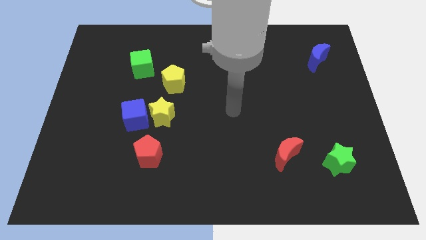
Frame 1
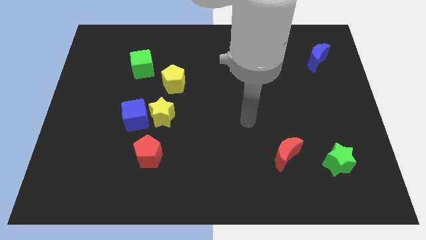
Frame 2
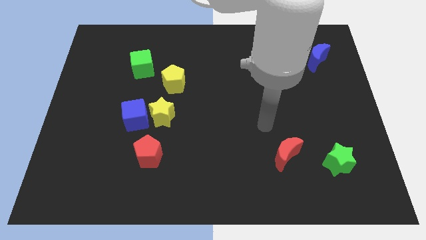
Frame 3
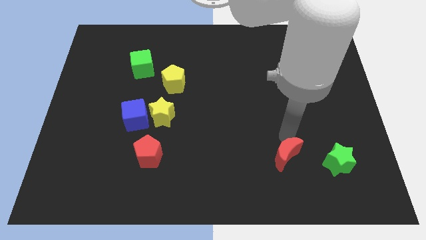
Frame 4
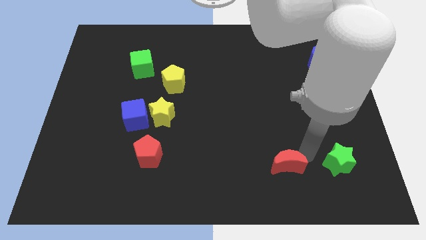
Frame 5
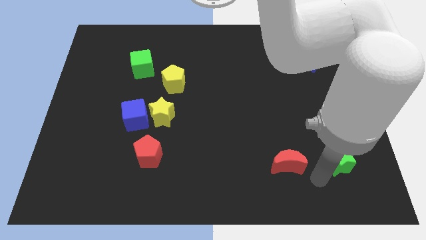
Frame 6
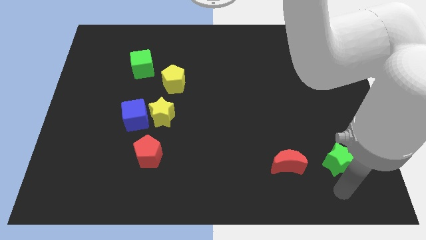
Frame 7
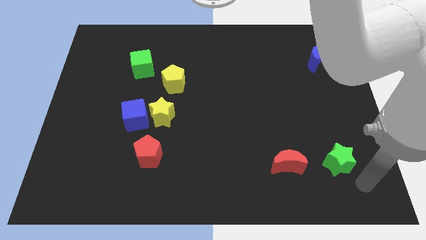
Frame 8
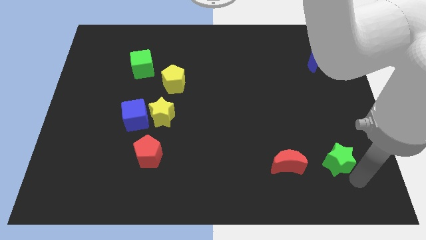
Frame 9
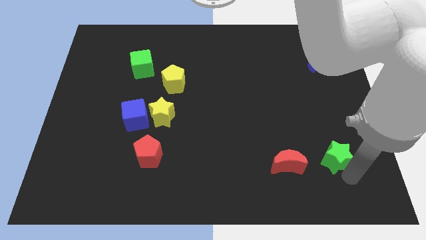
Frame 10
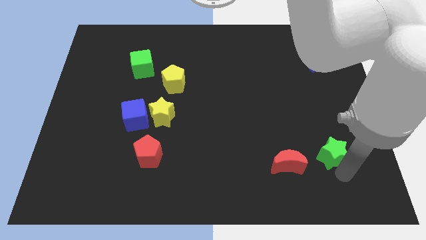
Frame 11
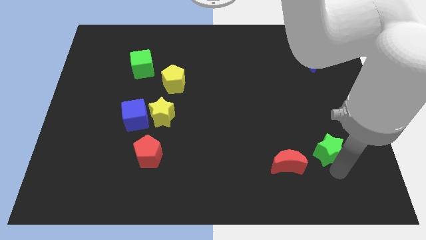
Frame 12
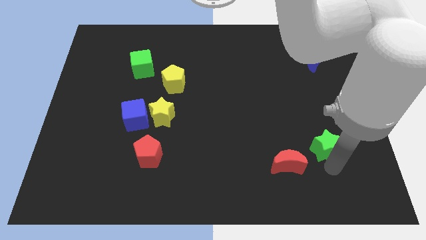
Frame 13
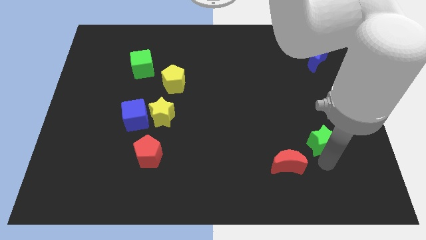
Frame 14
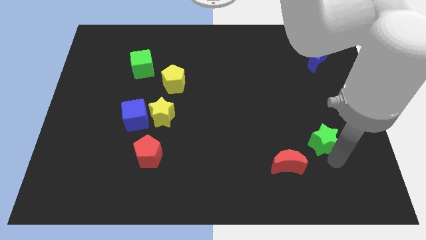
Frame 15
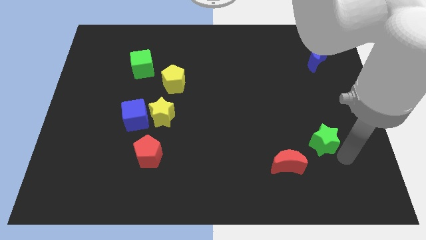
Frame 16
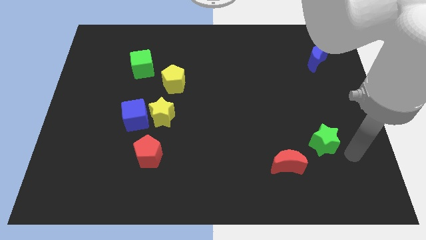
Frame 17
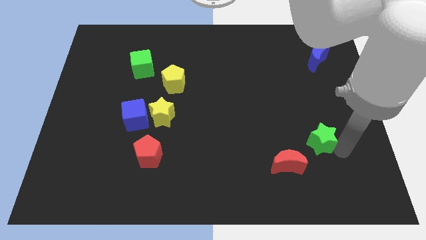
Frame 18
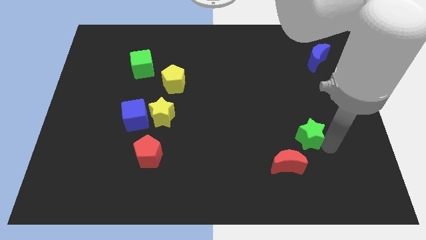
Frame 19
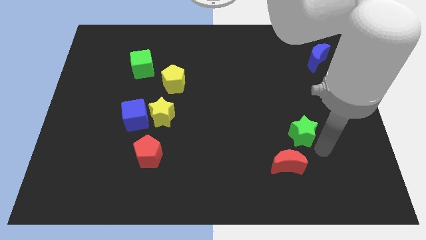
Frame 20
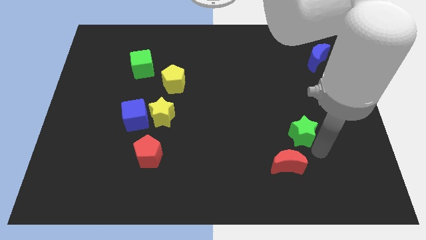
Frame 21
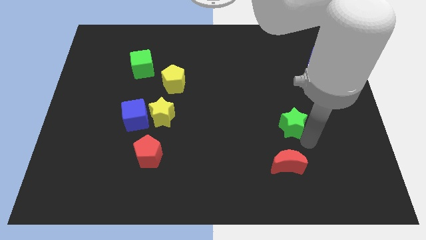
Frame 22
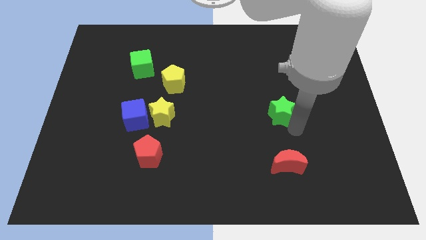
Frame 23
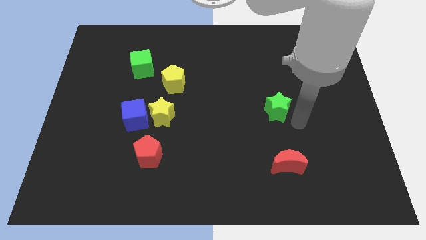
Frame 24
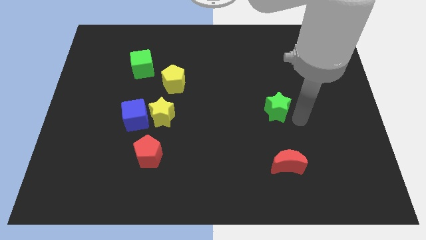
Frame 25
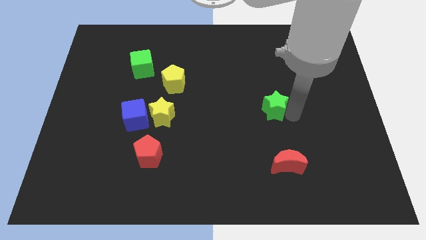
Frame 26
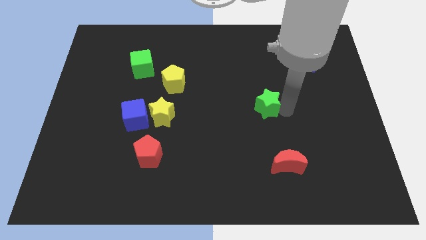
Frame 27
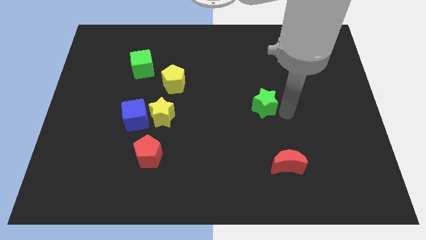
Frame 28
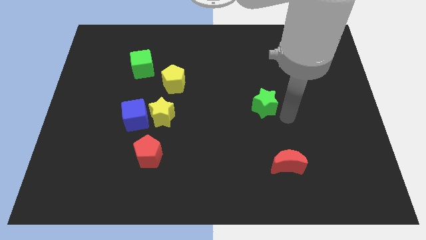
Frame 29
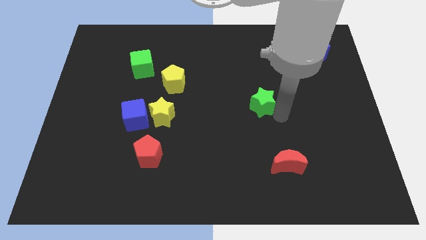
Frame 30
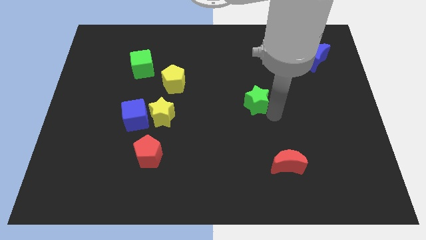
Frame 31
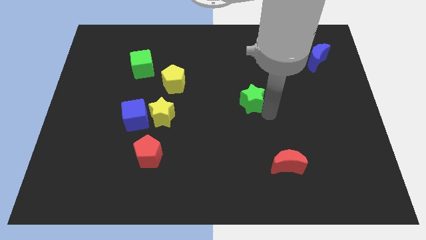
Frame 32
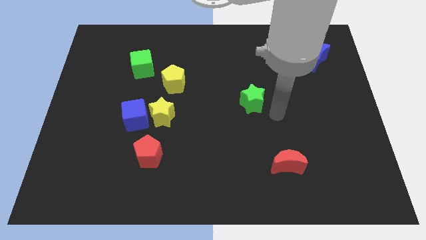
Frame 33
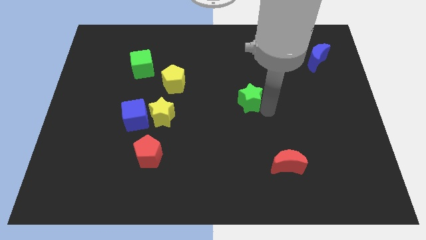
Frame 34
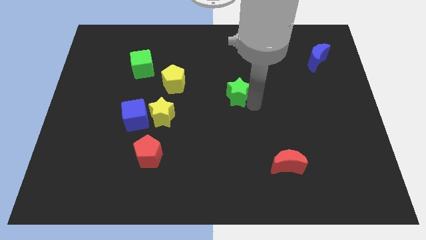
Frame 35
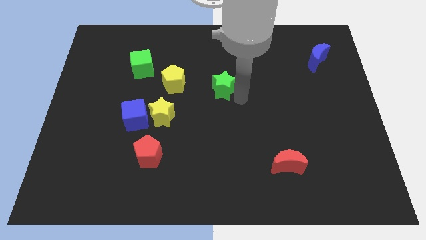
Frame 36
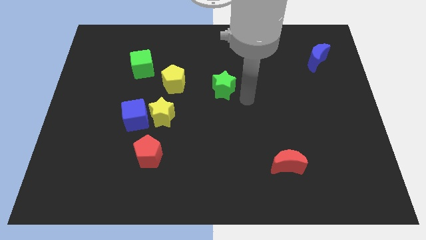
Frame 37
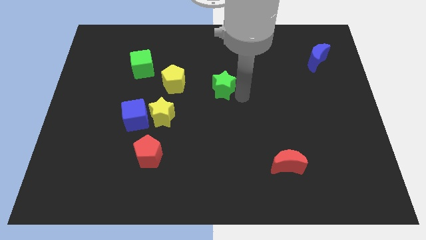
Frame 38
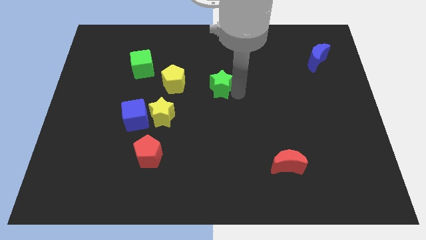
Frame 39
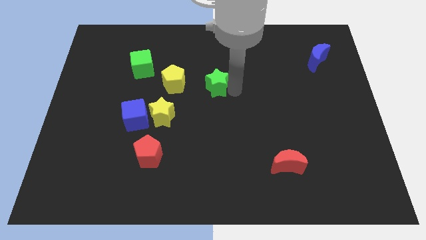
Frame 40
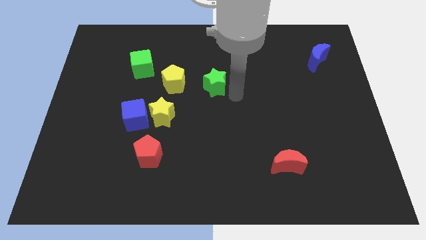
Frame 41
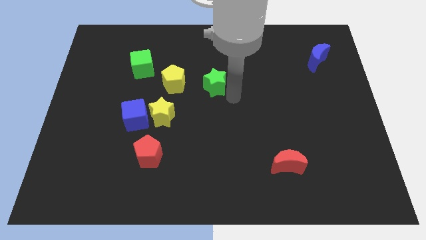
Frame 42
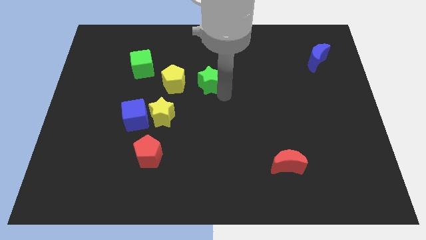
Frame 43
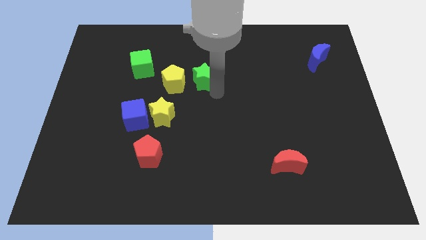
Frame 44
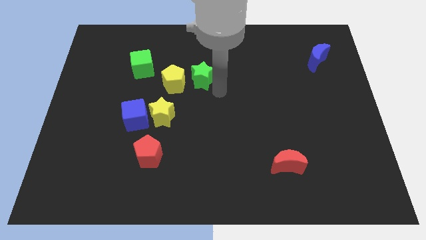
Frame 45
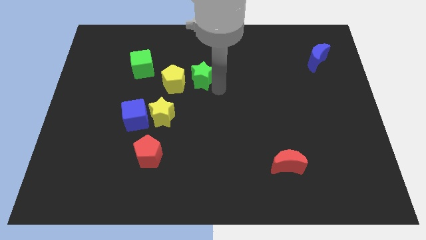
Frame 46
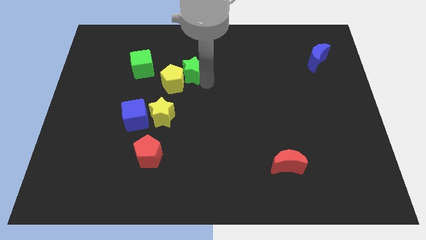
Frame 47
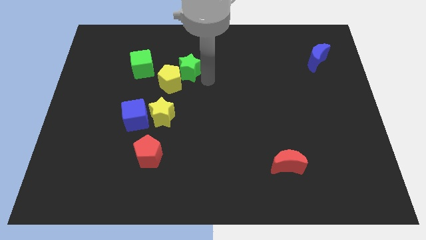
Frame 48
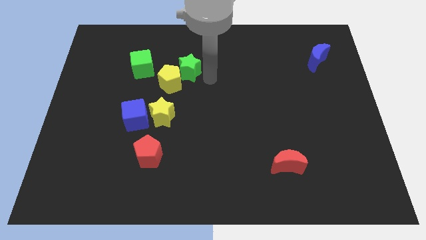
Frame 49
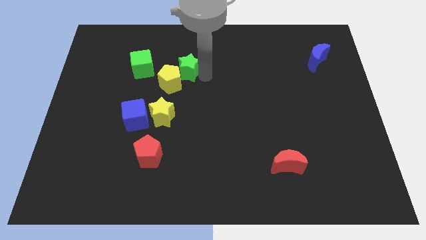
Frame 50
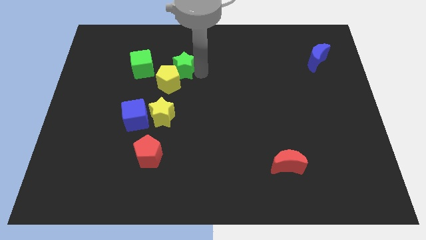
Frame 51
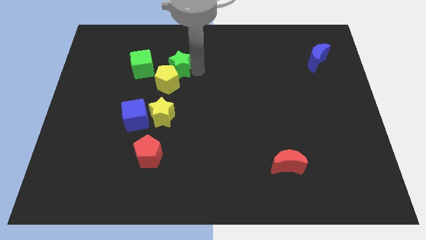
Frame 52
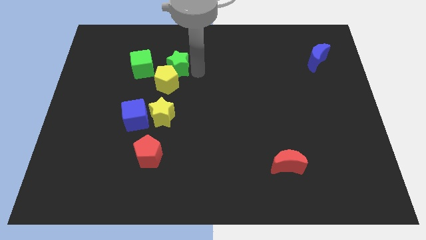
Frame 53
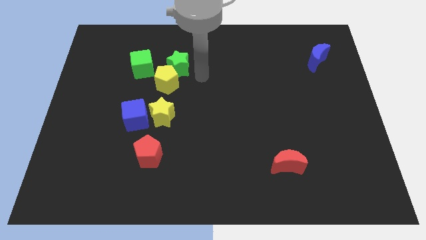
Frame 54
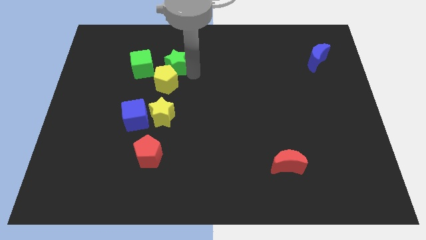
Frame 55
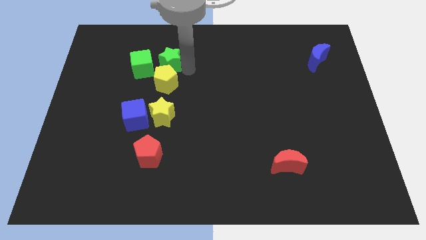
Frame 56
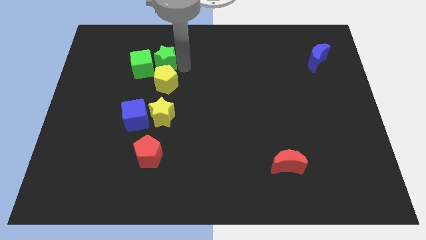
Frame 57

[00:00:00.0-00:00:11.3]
move the green star towards the green cube

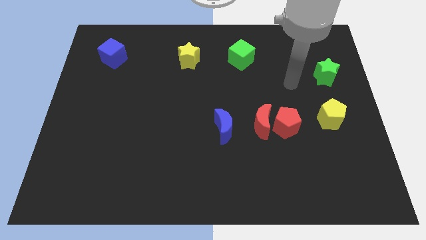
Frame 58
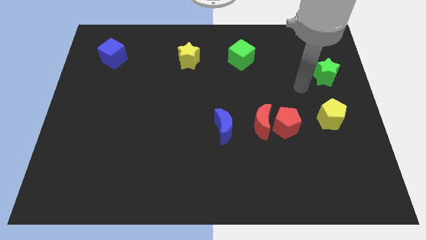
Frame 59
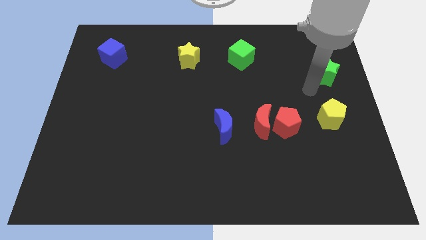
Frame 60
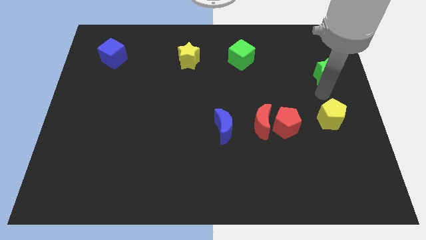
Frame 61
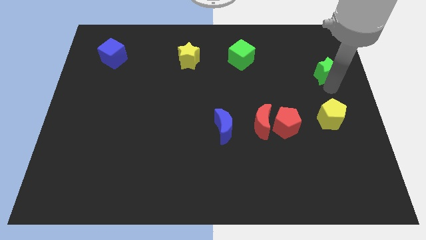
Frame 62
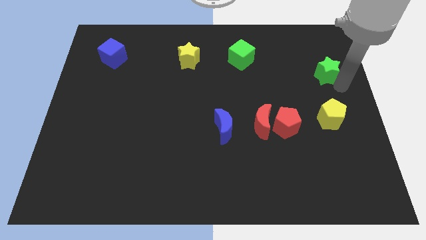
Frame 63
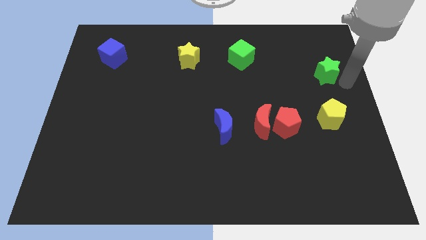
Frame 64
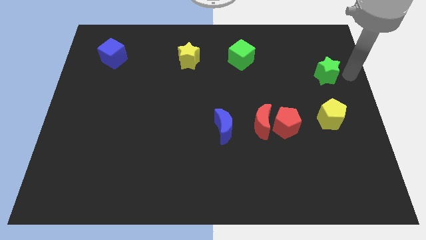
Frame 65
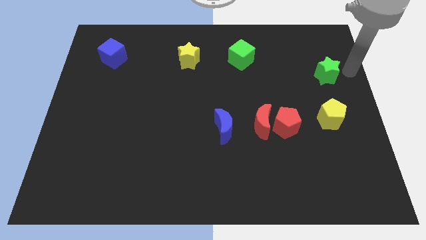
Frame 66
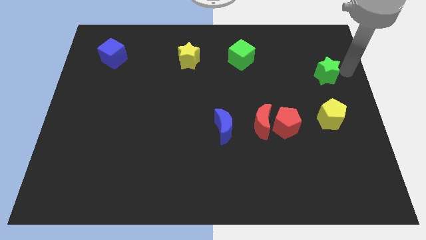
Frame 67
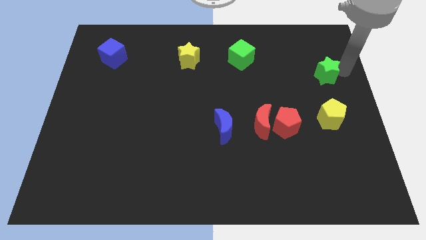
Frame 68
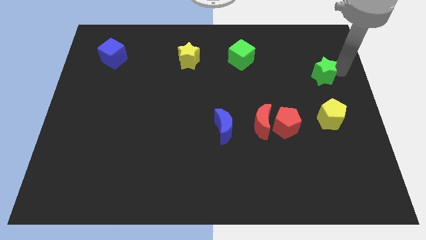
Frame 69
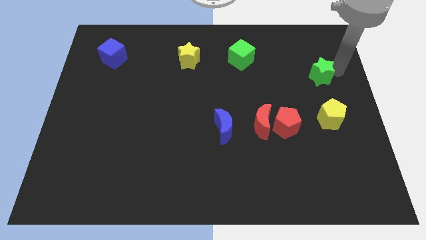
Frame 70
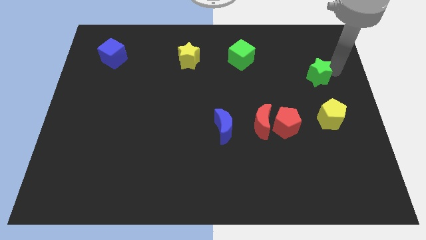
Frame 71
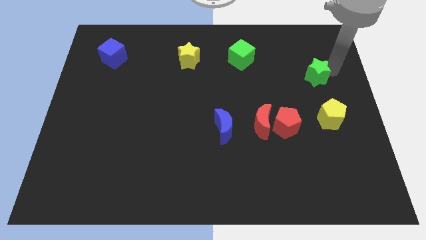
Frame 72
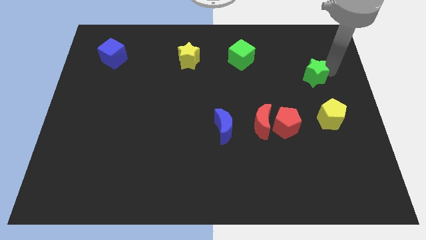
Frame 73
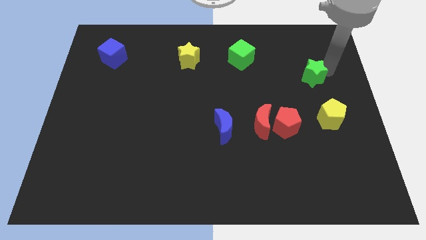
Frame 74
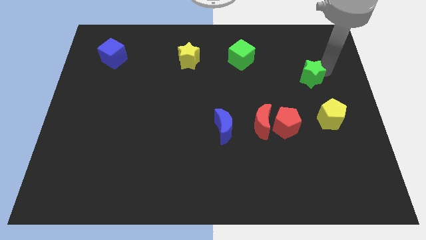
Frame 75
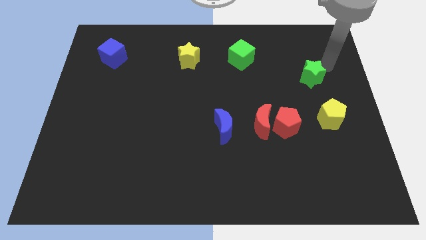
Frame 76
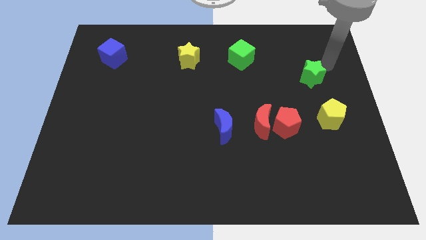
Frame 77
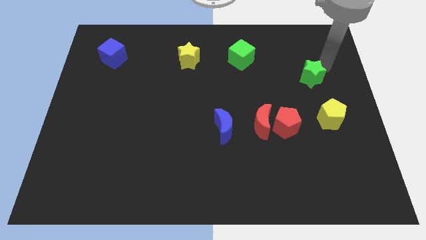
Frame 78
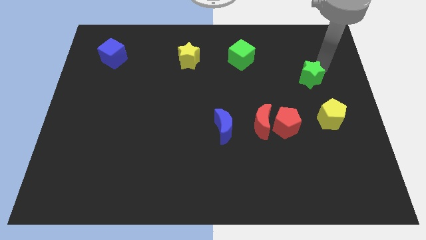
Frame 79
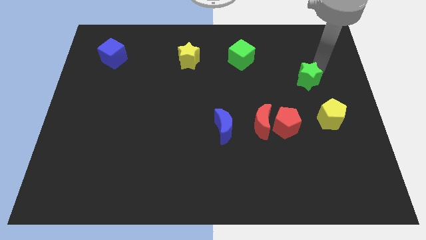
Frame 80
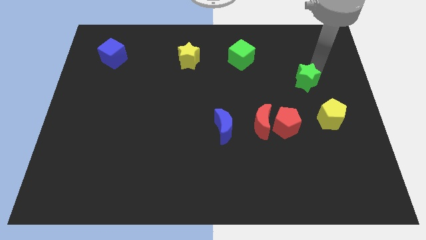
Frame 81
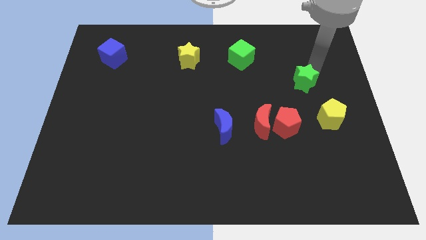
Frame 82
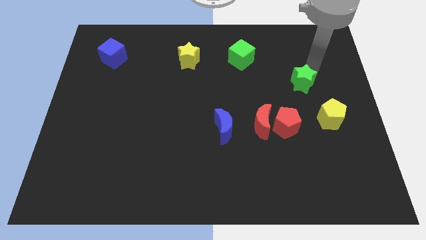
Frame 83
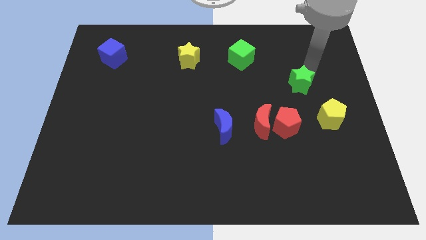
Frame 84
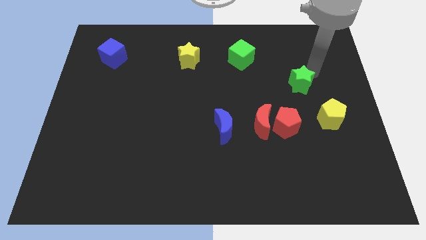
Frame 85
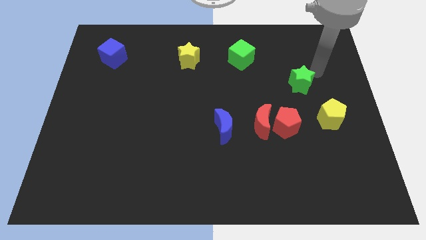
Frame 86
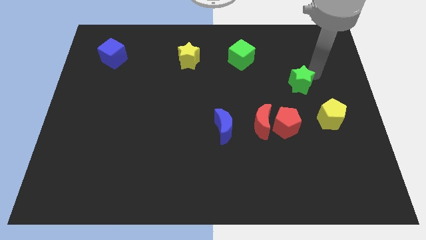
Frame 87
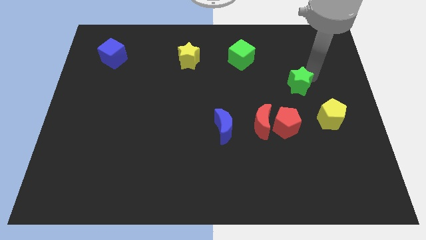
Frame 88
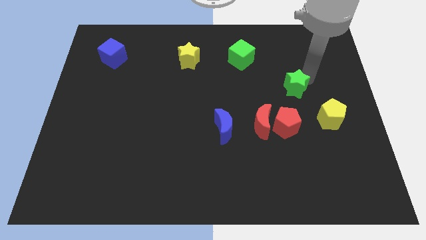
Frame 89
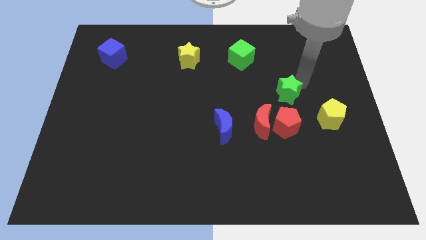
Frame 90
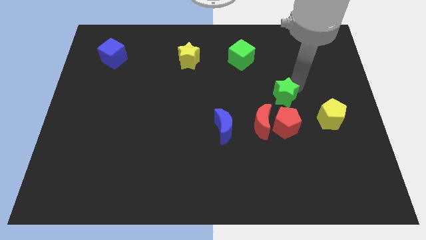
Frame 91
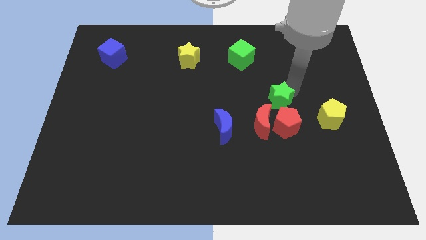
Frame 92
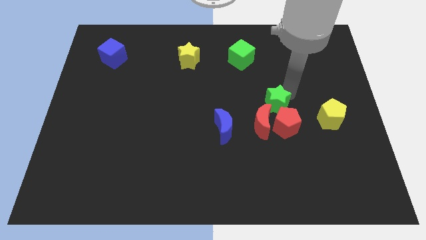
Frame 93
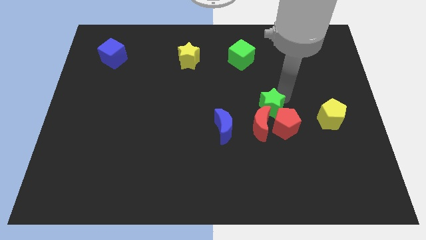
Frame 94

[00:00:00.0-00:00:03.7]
move the green star next to the red moon
